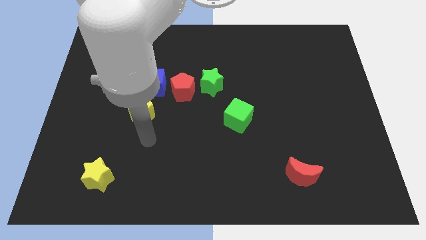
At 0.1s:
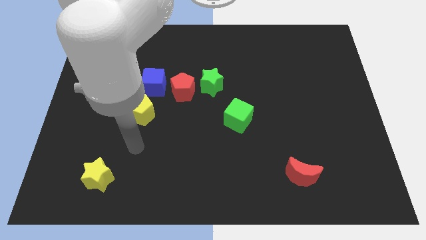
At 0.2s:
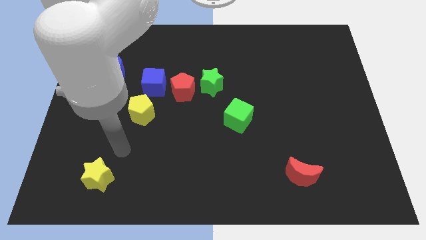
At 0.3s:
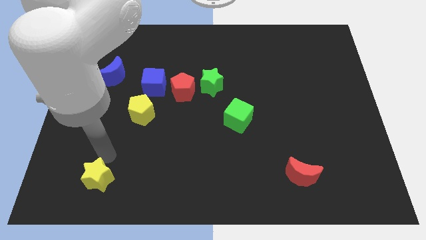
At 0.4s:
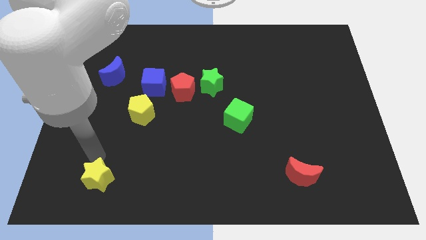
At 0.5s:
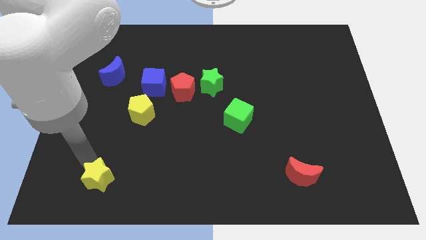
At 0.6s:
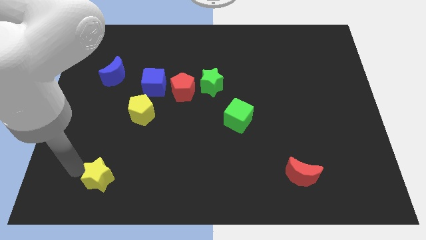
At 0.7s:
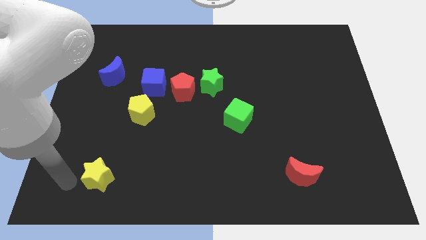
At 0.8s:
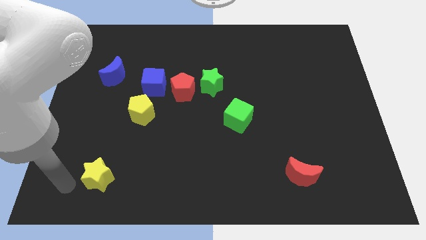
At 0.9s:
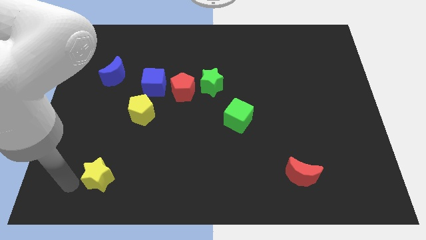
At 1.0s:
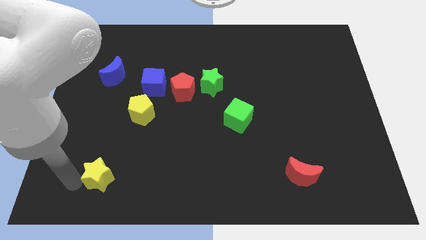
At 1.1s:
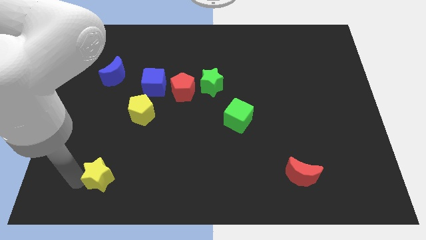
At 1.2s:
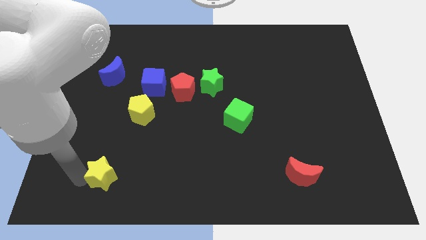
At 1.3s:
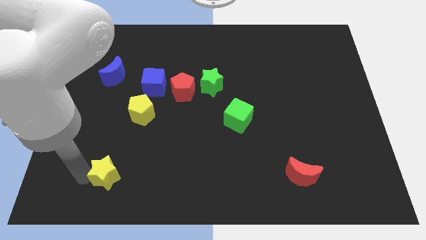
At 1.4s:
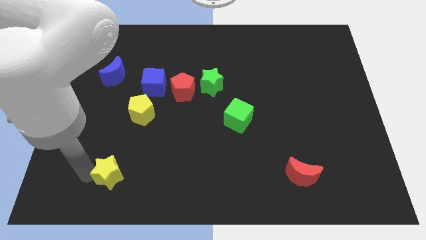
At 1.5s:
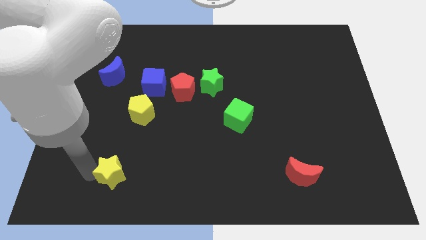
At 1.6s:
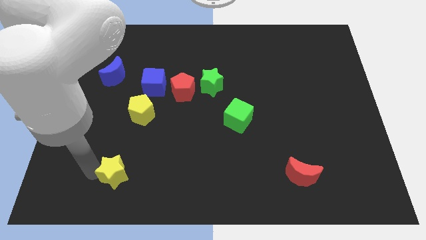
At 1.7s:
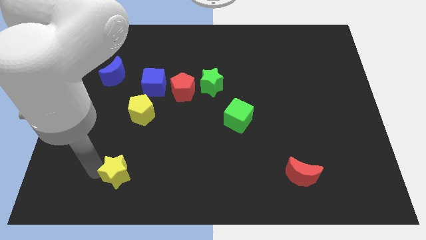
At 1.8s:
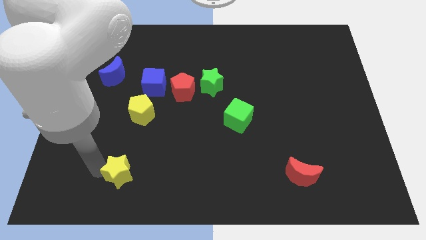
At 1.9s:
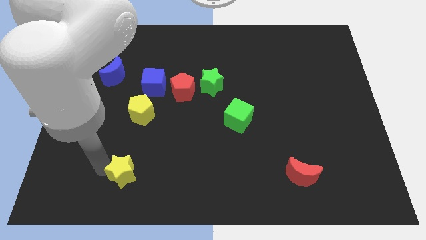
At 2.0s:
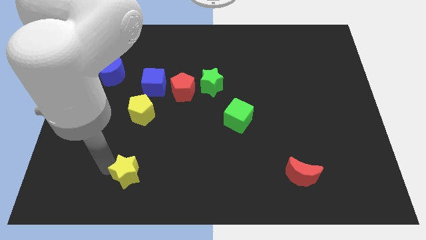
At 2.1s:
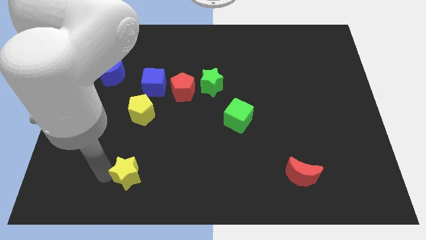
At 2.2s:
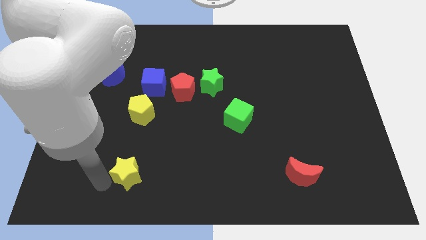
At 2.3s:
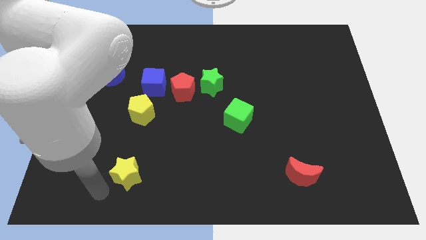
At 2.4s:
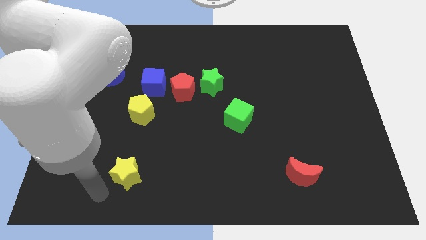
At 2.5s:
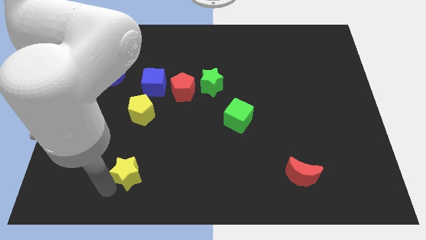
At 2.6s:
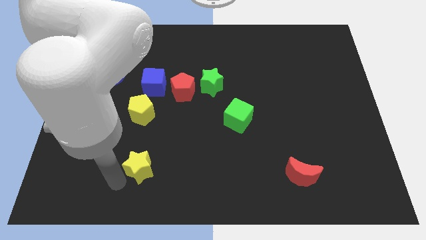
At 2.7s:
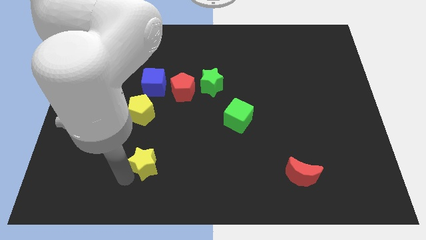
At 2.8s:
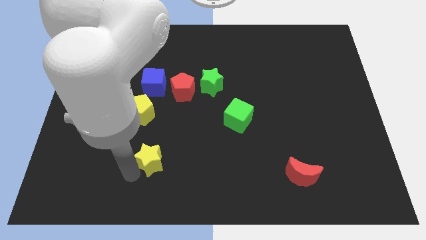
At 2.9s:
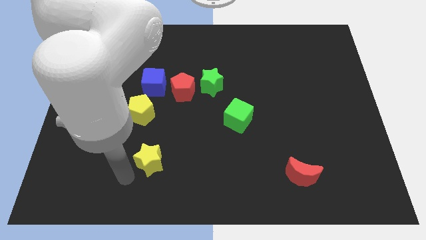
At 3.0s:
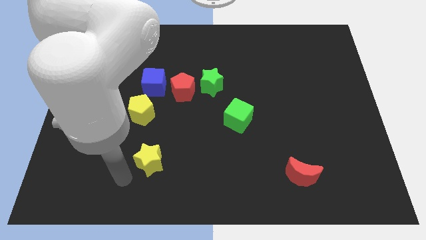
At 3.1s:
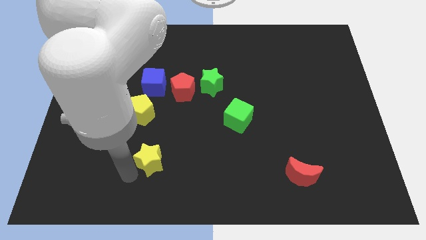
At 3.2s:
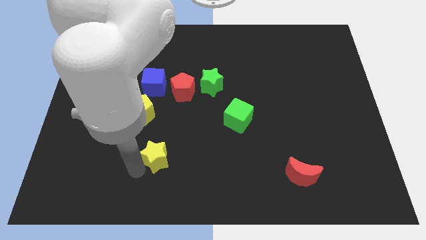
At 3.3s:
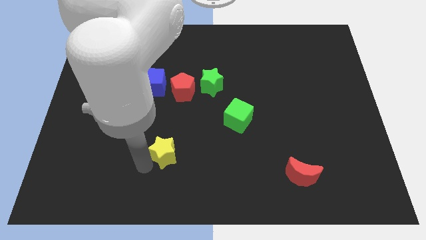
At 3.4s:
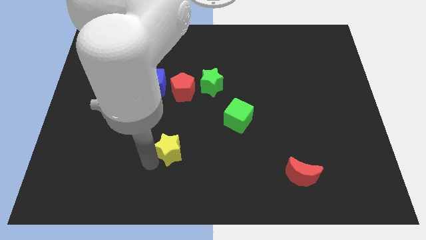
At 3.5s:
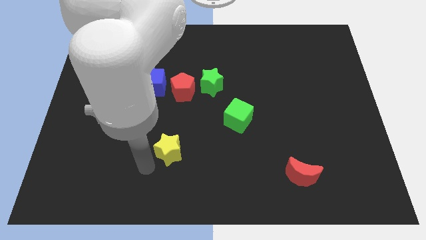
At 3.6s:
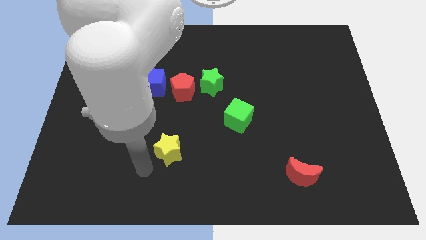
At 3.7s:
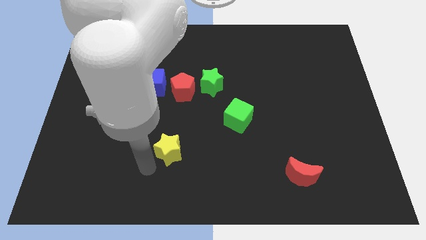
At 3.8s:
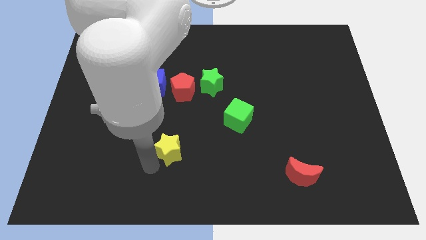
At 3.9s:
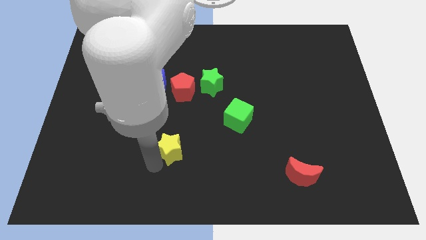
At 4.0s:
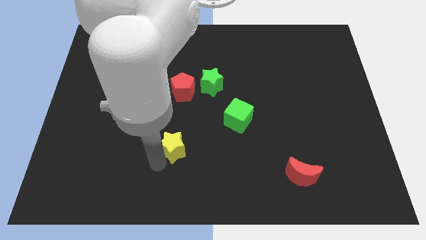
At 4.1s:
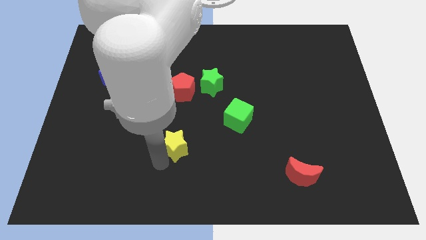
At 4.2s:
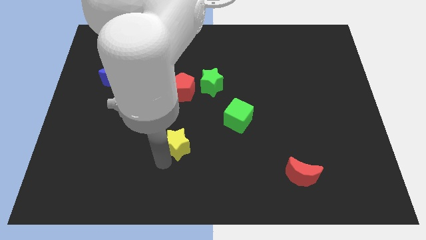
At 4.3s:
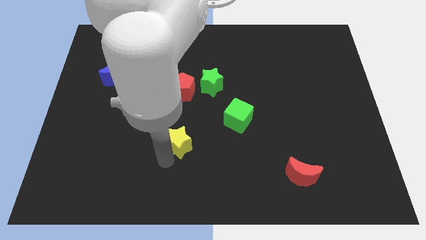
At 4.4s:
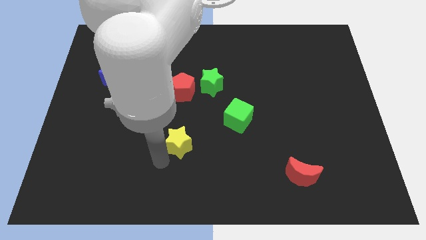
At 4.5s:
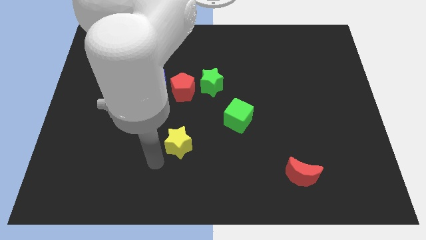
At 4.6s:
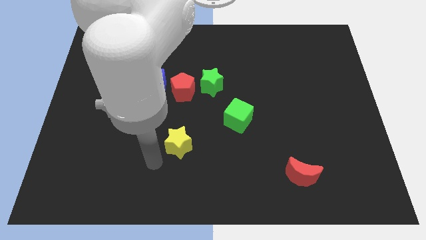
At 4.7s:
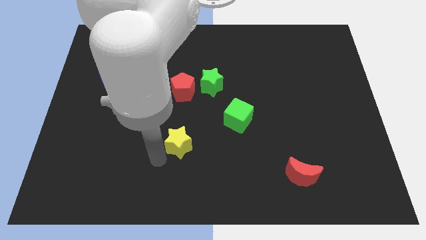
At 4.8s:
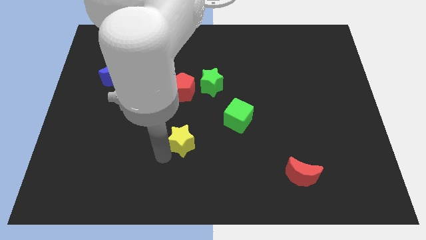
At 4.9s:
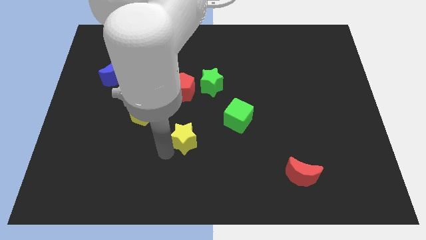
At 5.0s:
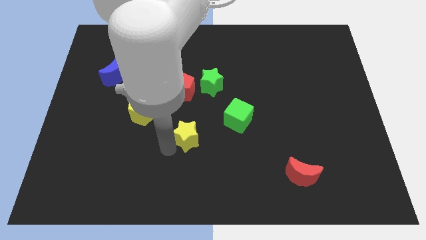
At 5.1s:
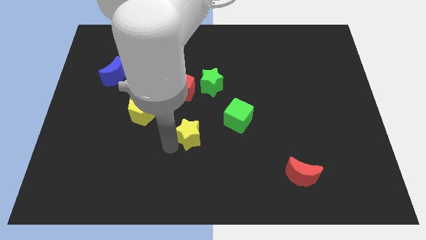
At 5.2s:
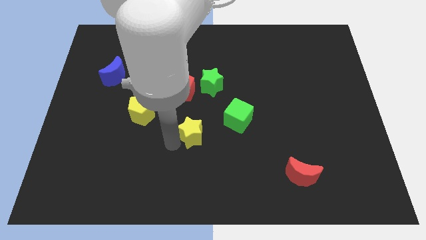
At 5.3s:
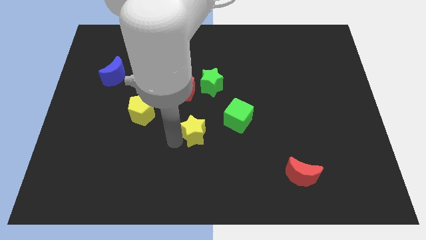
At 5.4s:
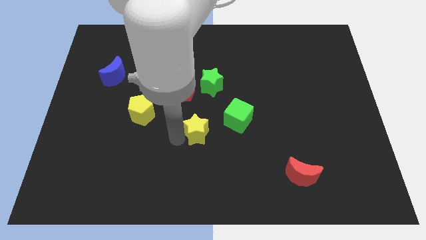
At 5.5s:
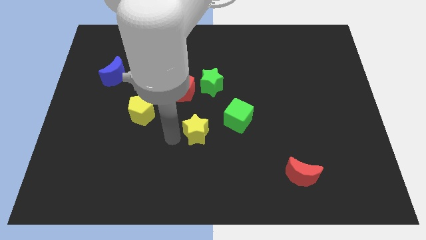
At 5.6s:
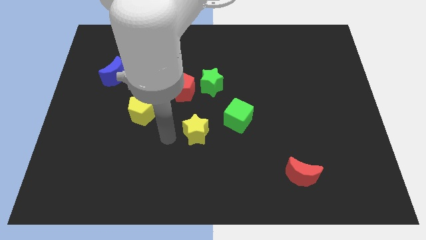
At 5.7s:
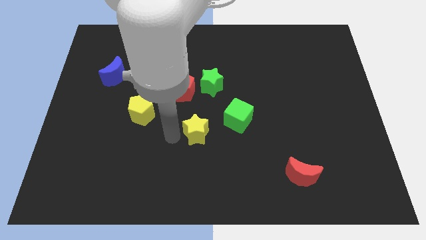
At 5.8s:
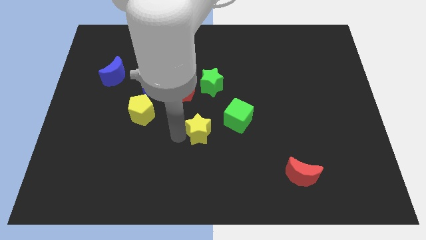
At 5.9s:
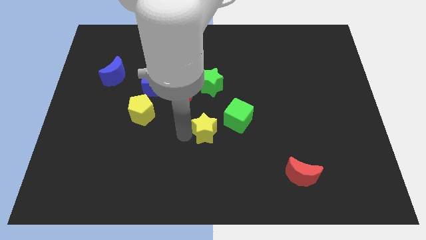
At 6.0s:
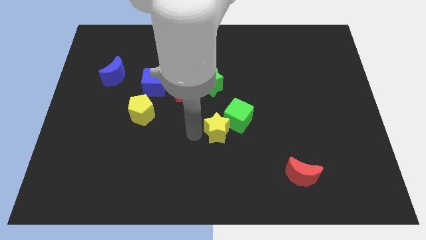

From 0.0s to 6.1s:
push the yellow star next to the green cube

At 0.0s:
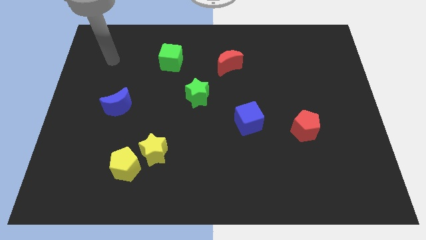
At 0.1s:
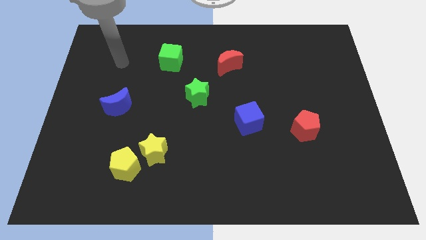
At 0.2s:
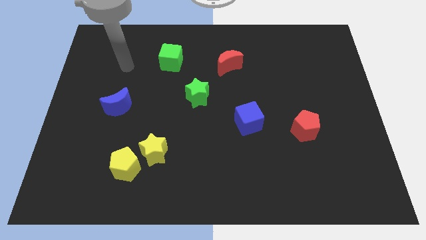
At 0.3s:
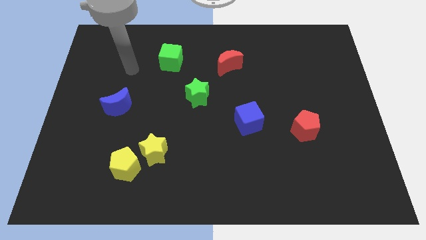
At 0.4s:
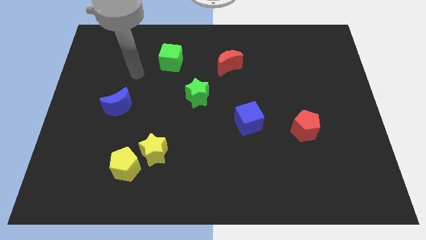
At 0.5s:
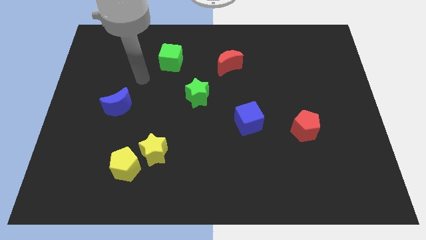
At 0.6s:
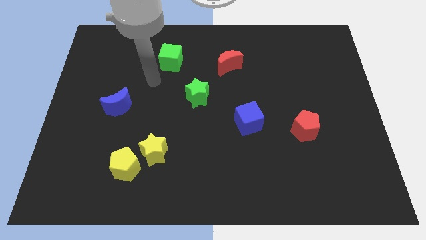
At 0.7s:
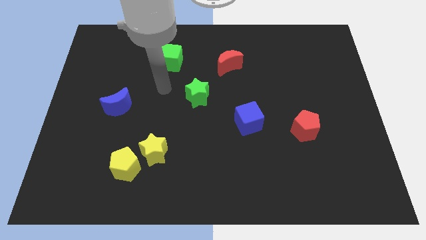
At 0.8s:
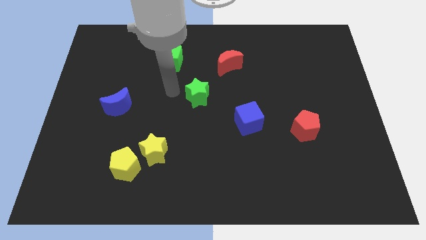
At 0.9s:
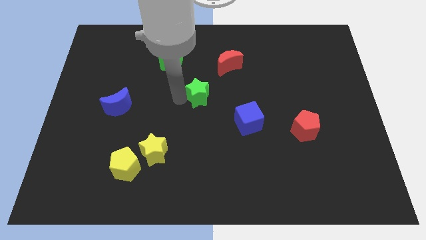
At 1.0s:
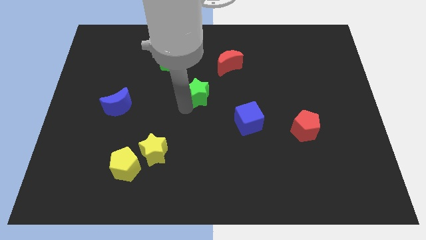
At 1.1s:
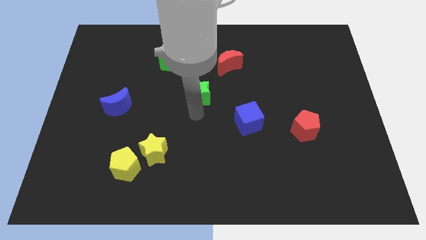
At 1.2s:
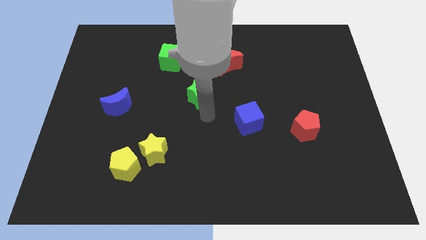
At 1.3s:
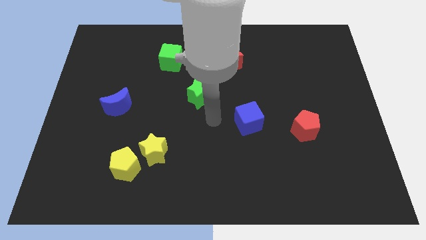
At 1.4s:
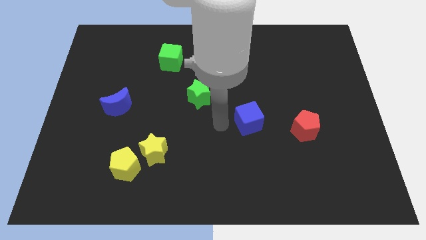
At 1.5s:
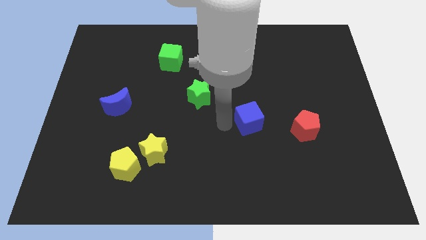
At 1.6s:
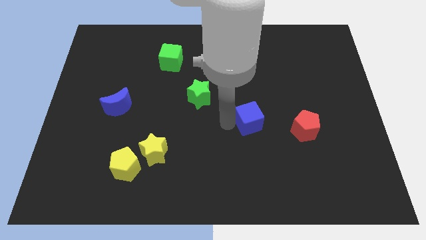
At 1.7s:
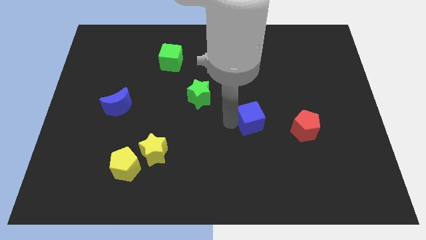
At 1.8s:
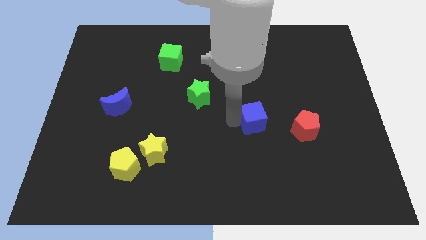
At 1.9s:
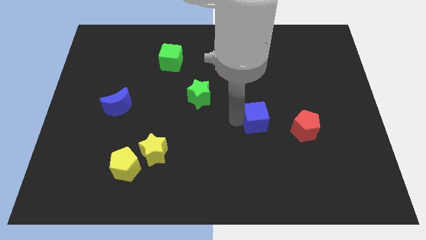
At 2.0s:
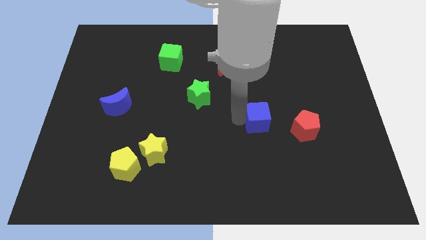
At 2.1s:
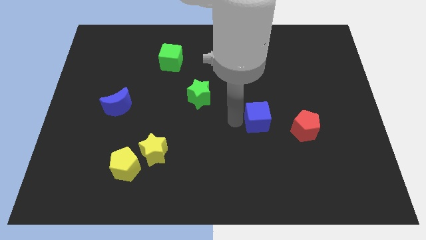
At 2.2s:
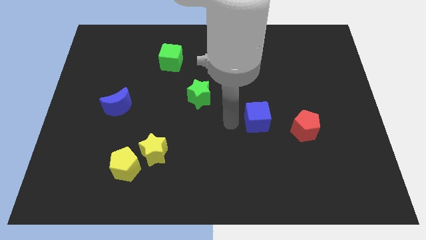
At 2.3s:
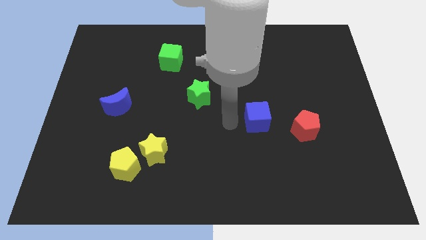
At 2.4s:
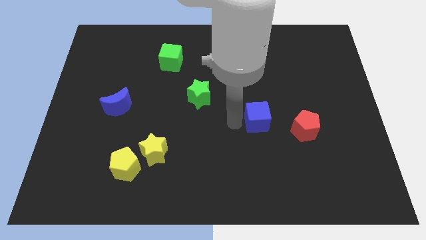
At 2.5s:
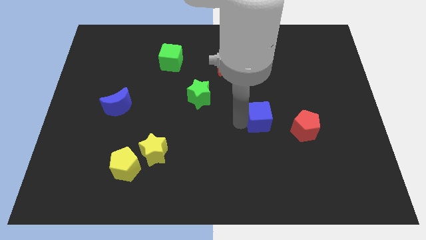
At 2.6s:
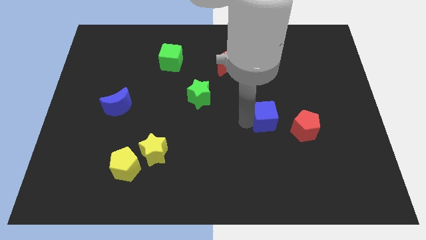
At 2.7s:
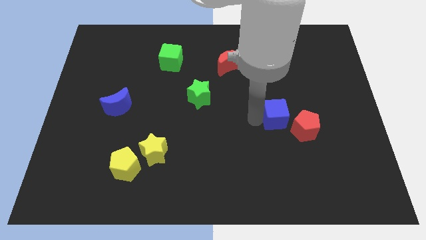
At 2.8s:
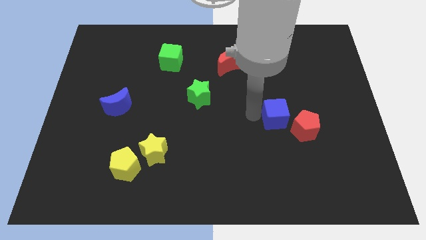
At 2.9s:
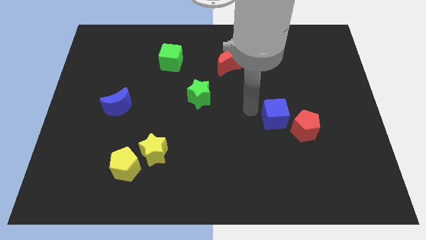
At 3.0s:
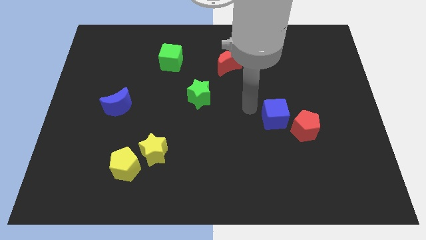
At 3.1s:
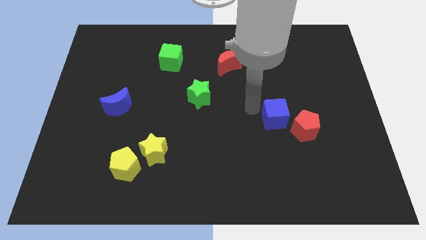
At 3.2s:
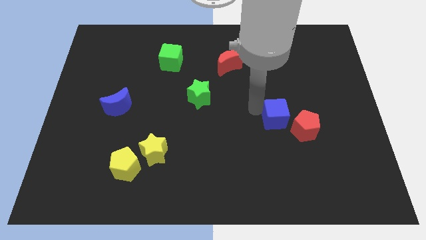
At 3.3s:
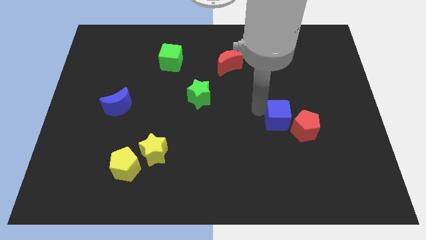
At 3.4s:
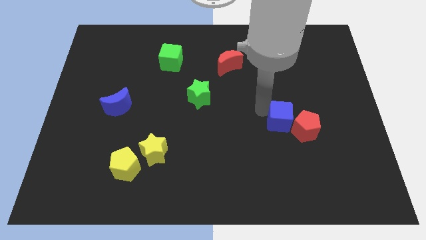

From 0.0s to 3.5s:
push the blue cube next to the red pentagon
